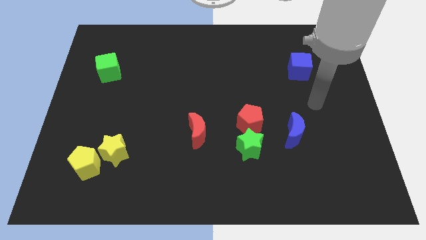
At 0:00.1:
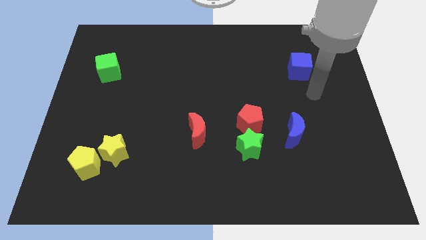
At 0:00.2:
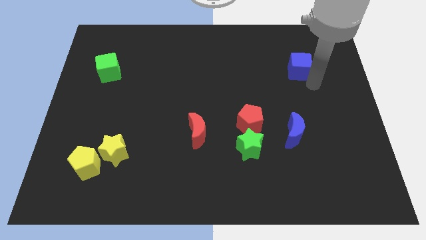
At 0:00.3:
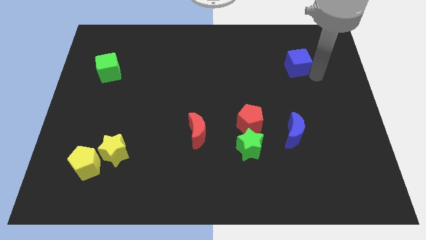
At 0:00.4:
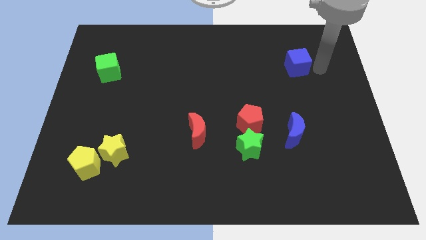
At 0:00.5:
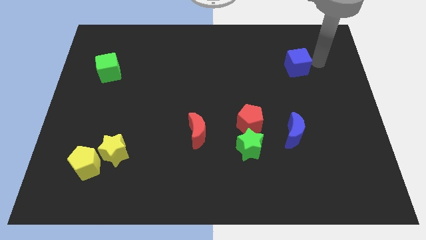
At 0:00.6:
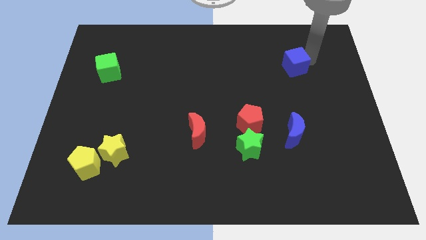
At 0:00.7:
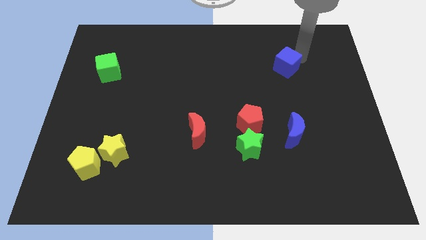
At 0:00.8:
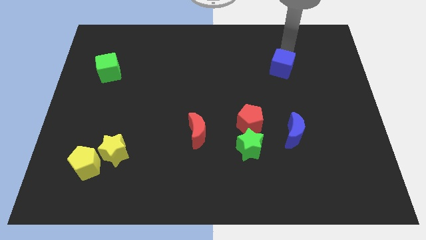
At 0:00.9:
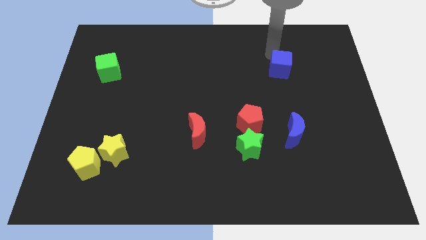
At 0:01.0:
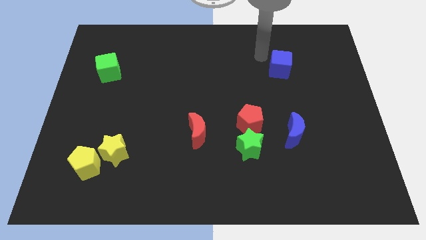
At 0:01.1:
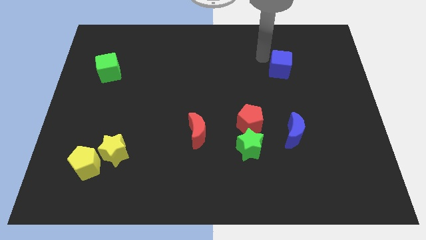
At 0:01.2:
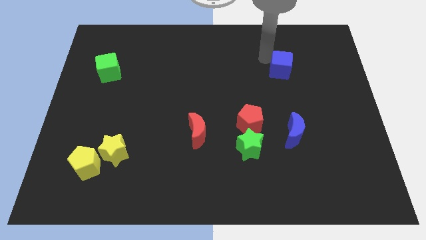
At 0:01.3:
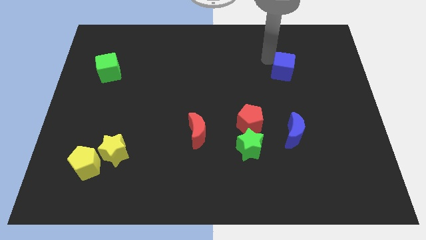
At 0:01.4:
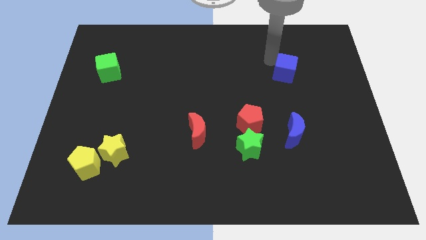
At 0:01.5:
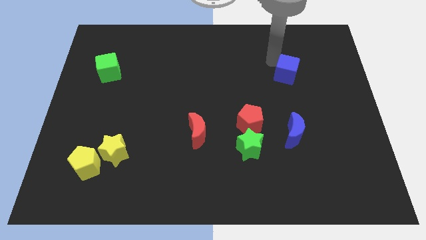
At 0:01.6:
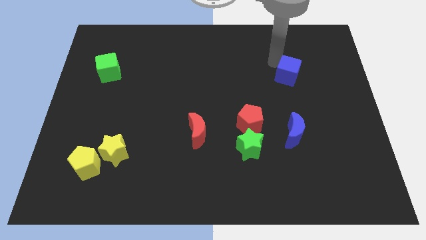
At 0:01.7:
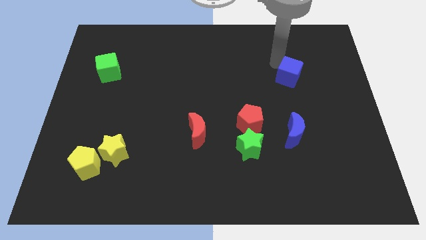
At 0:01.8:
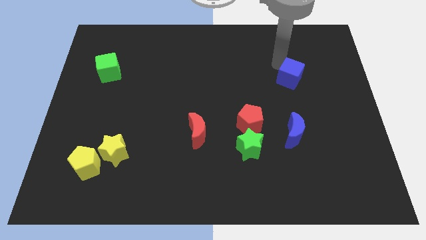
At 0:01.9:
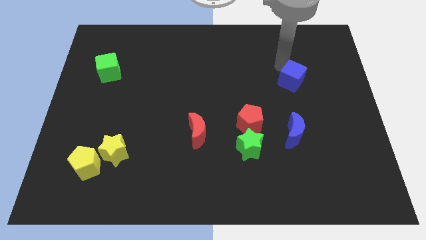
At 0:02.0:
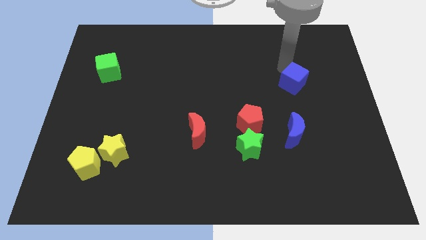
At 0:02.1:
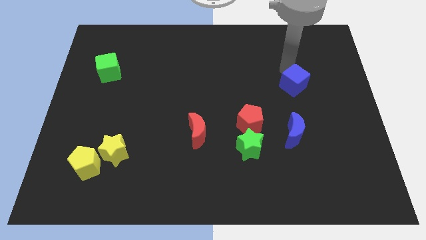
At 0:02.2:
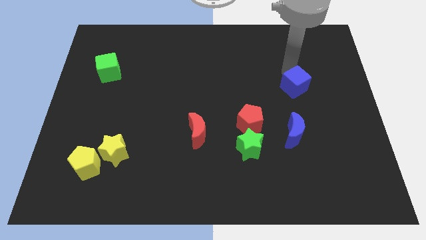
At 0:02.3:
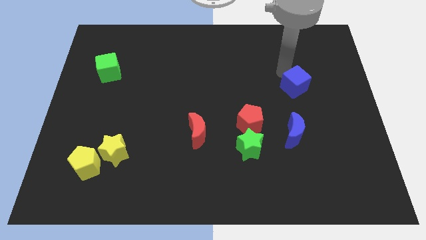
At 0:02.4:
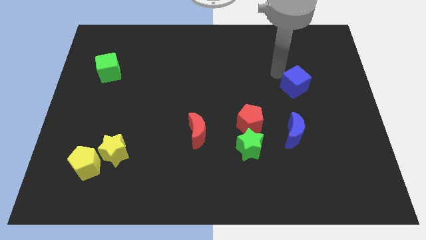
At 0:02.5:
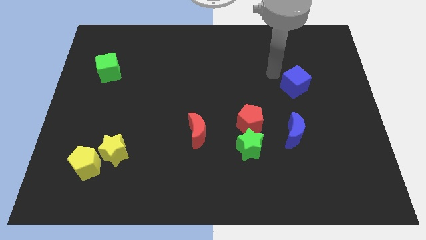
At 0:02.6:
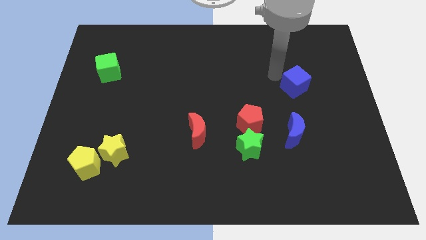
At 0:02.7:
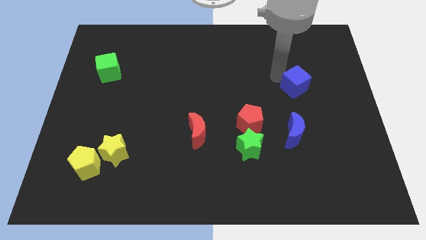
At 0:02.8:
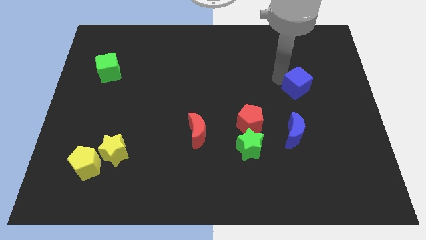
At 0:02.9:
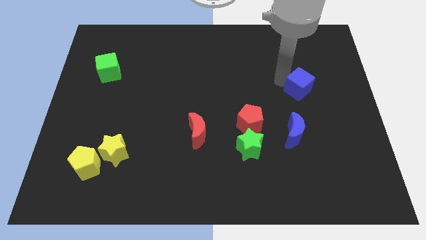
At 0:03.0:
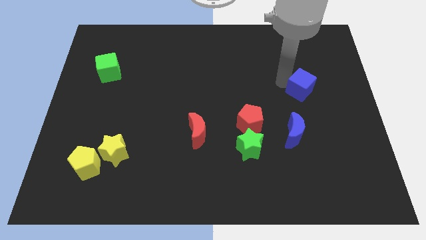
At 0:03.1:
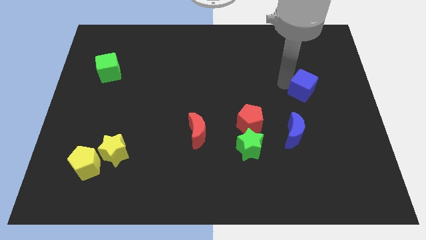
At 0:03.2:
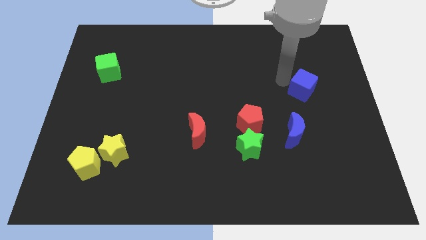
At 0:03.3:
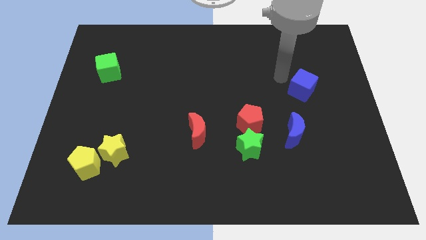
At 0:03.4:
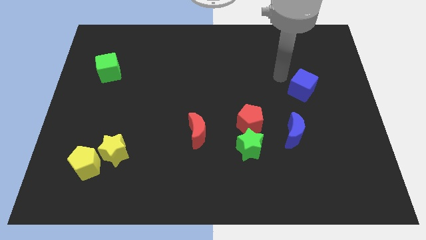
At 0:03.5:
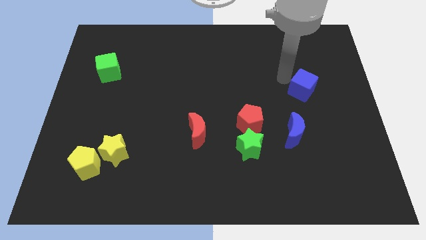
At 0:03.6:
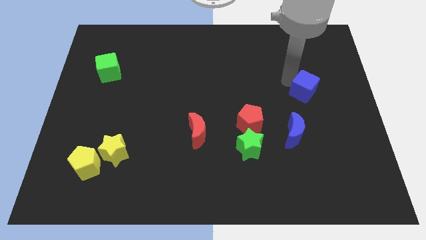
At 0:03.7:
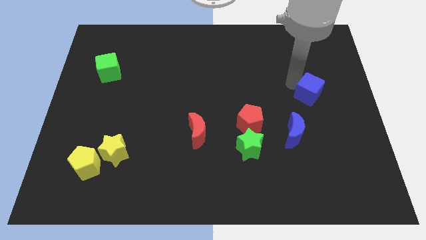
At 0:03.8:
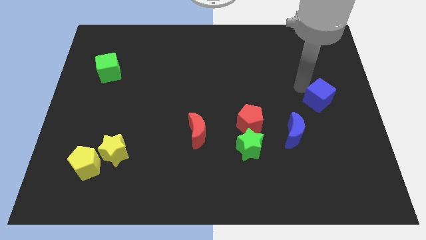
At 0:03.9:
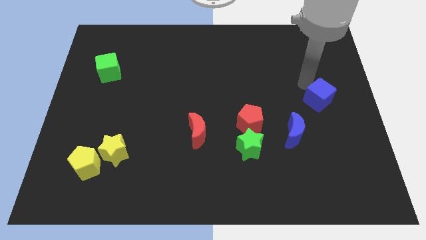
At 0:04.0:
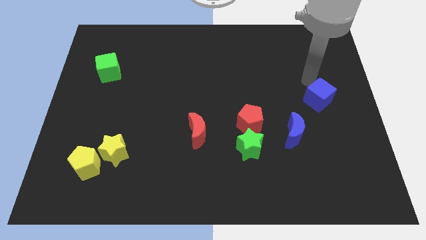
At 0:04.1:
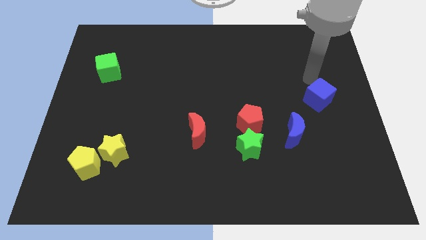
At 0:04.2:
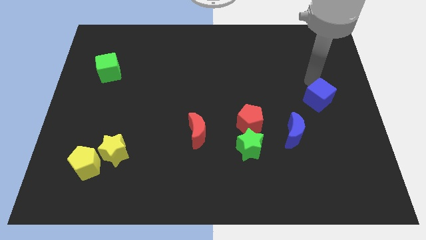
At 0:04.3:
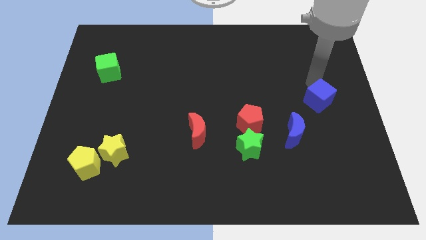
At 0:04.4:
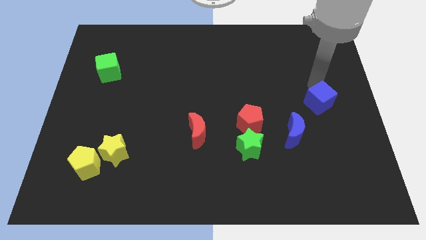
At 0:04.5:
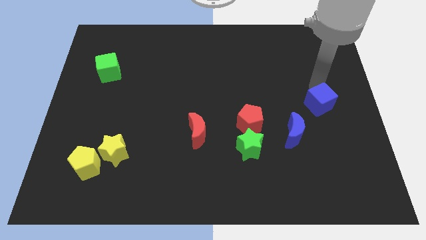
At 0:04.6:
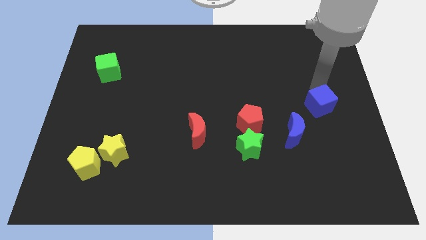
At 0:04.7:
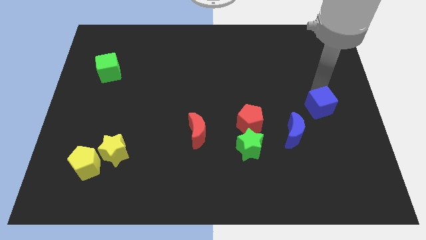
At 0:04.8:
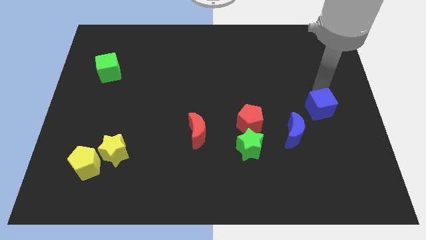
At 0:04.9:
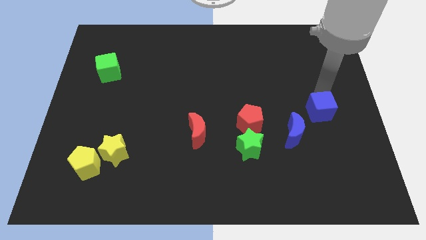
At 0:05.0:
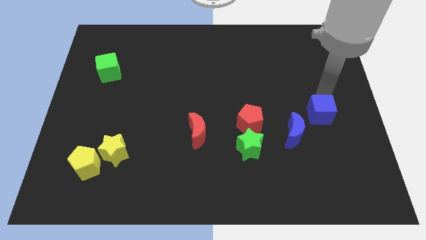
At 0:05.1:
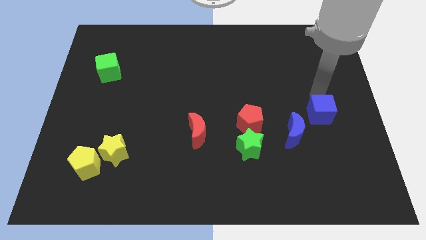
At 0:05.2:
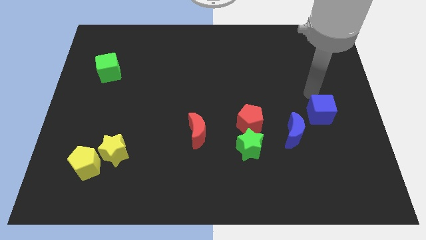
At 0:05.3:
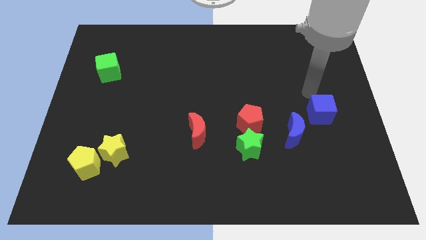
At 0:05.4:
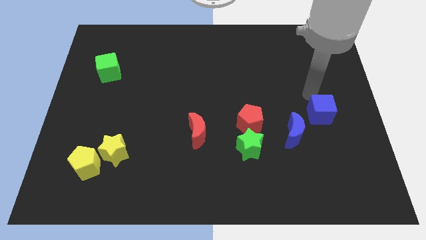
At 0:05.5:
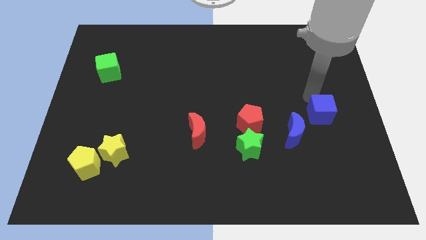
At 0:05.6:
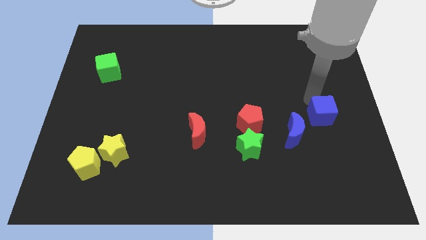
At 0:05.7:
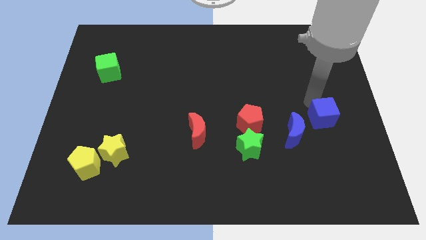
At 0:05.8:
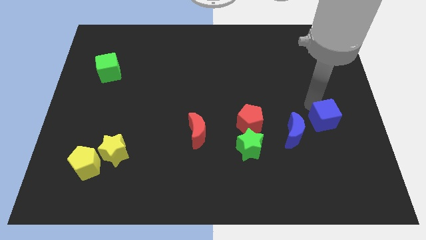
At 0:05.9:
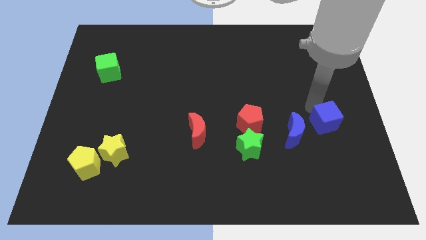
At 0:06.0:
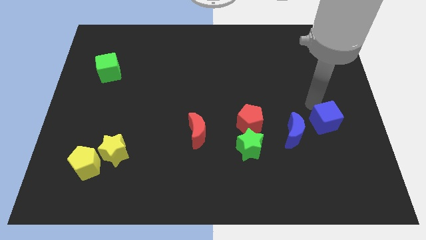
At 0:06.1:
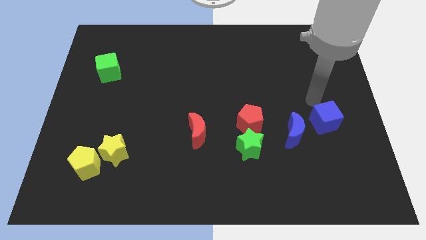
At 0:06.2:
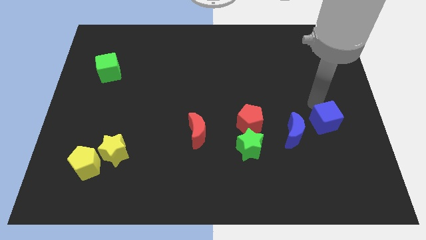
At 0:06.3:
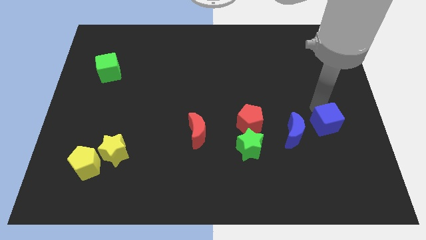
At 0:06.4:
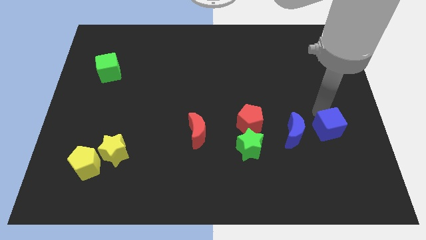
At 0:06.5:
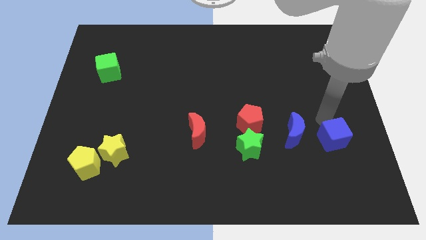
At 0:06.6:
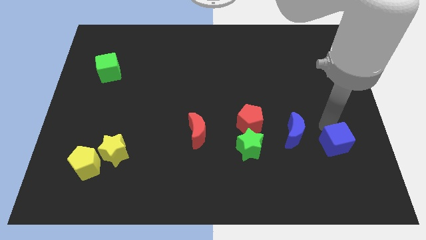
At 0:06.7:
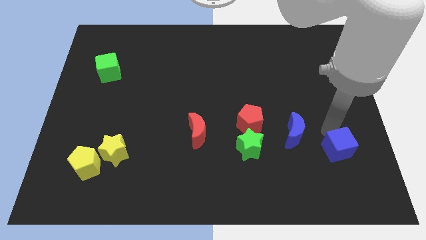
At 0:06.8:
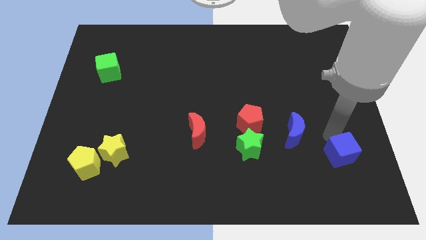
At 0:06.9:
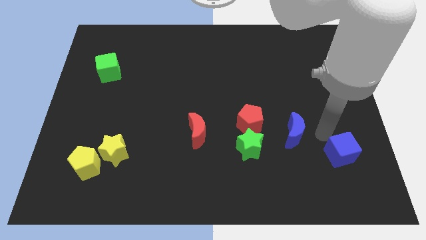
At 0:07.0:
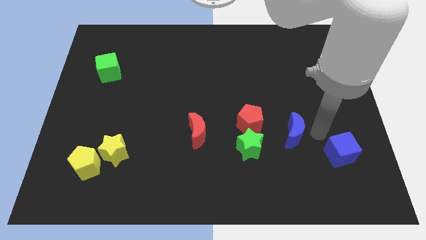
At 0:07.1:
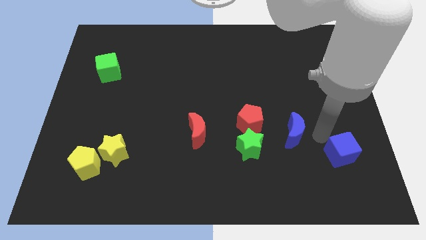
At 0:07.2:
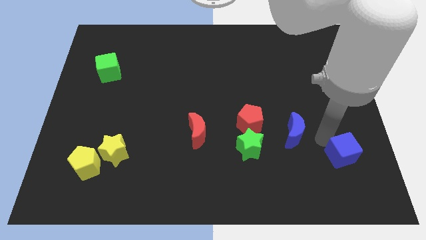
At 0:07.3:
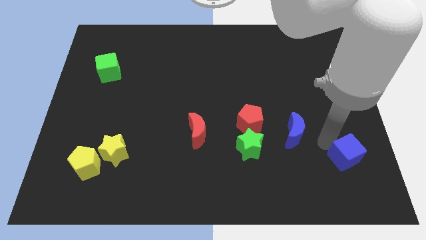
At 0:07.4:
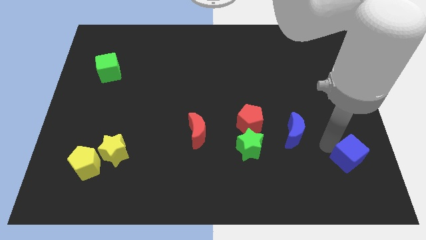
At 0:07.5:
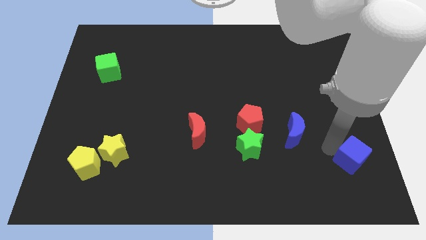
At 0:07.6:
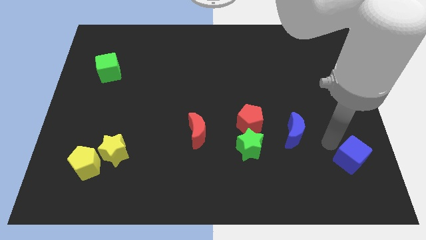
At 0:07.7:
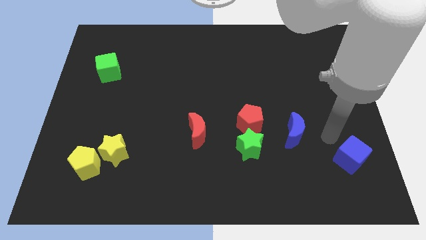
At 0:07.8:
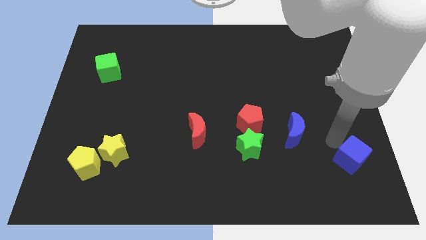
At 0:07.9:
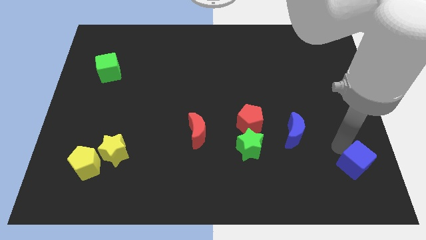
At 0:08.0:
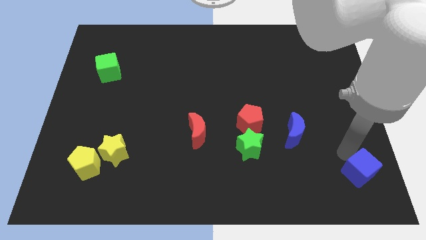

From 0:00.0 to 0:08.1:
move the blue cube to the bottom right of the board
